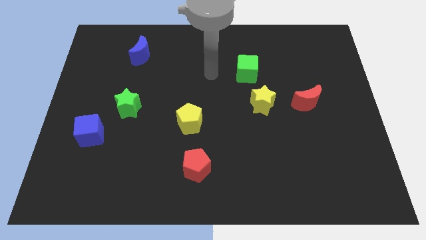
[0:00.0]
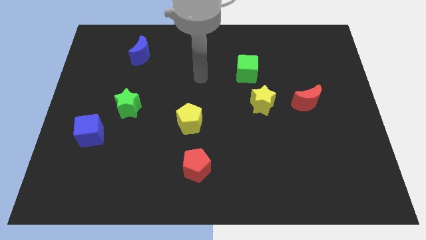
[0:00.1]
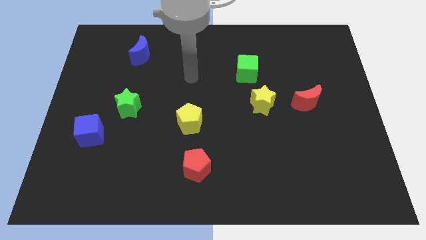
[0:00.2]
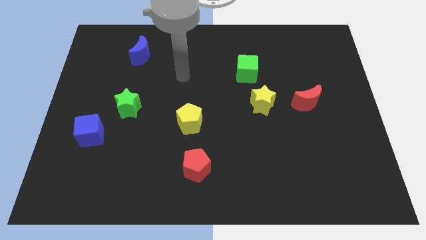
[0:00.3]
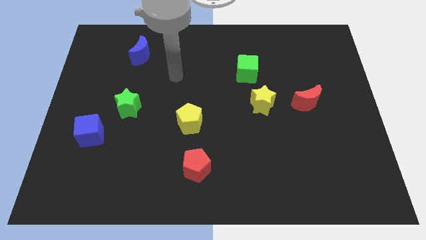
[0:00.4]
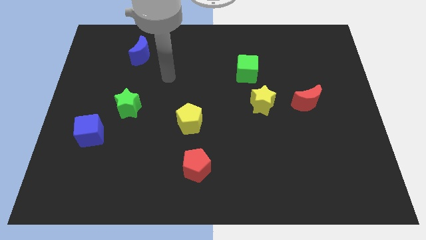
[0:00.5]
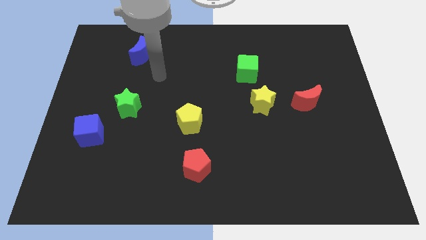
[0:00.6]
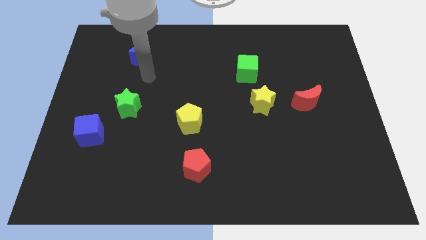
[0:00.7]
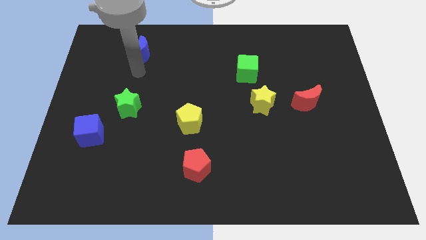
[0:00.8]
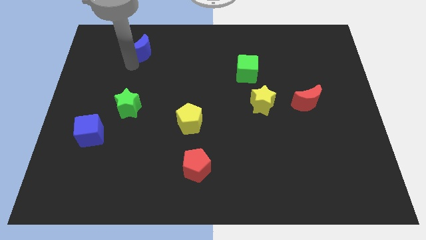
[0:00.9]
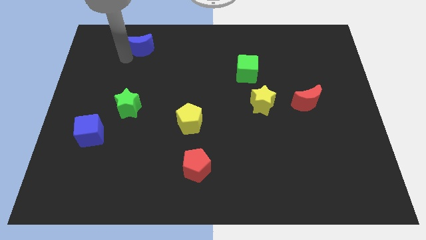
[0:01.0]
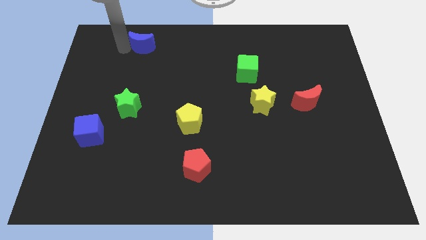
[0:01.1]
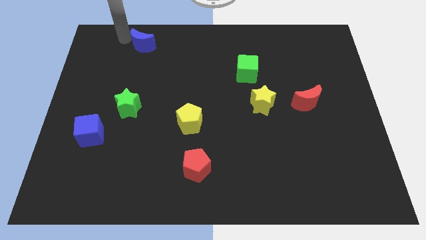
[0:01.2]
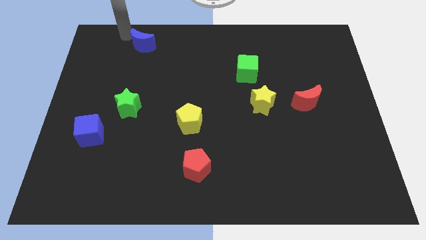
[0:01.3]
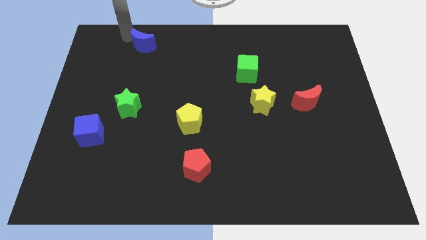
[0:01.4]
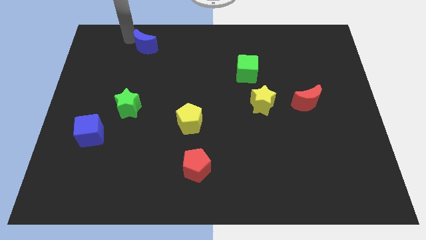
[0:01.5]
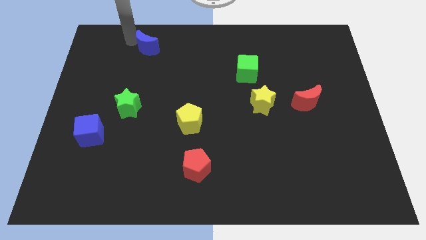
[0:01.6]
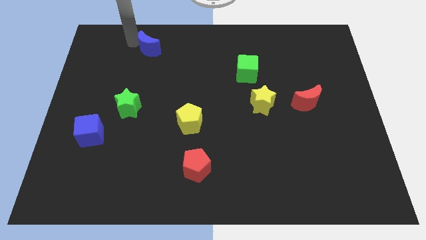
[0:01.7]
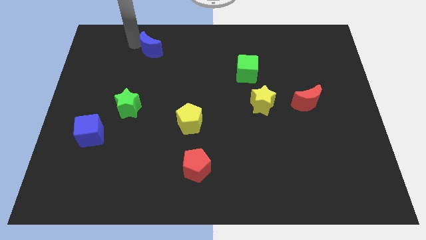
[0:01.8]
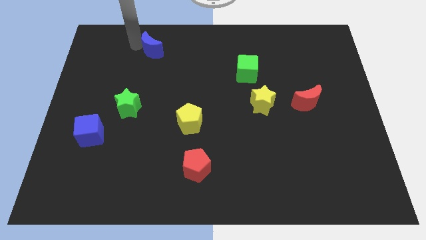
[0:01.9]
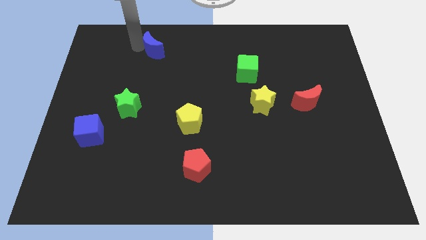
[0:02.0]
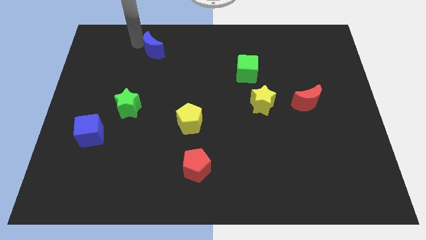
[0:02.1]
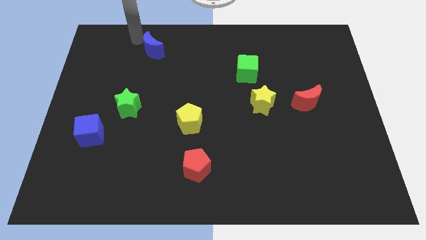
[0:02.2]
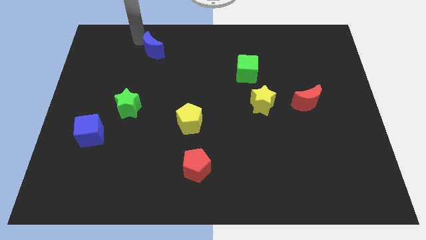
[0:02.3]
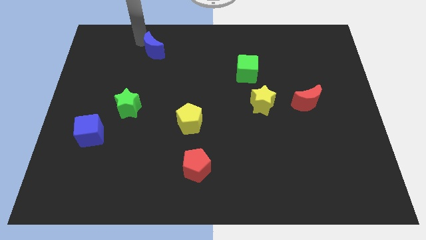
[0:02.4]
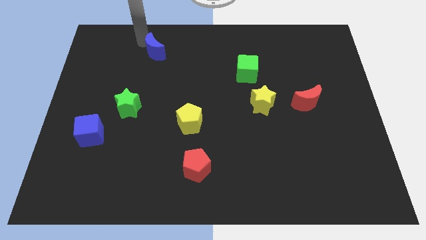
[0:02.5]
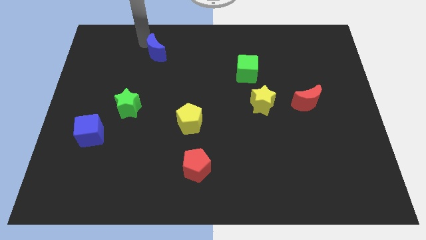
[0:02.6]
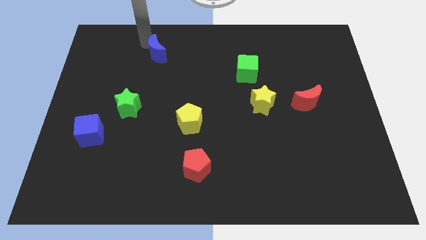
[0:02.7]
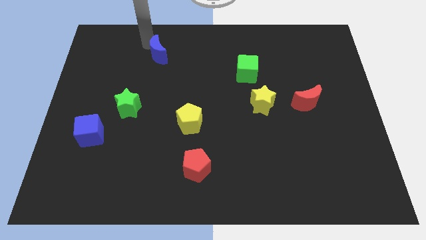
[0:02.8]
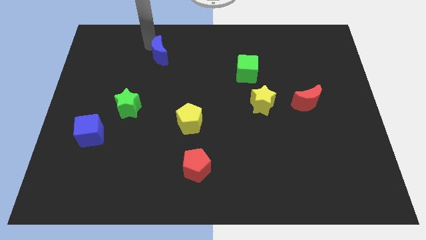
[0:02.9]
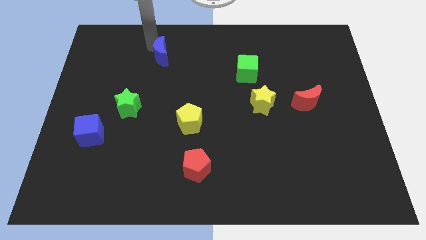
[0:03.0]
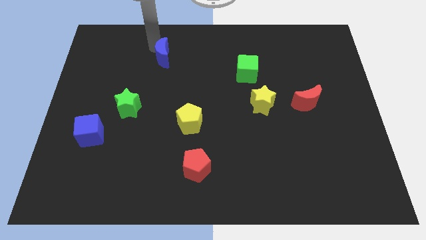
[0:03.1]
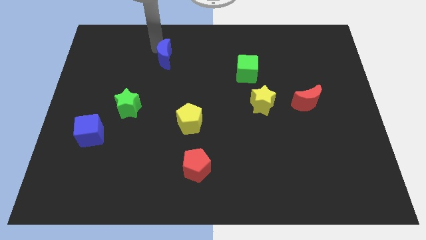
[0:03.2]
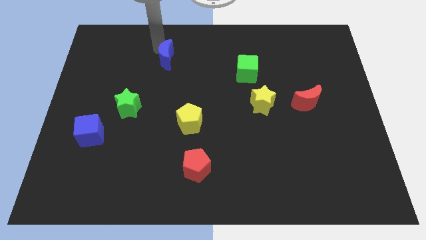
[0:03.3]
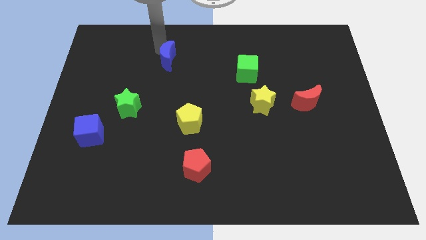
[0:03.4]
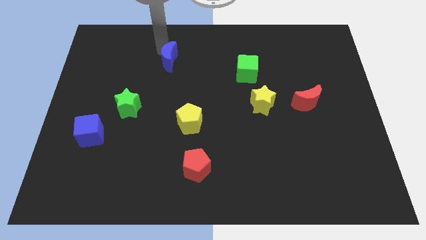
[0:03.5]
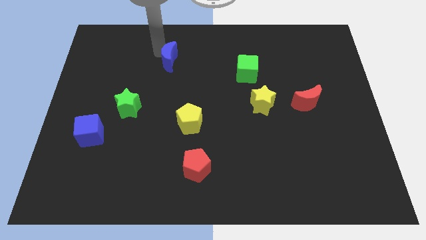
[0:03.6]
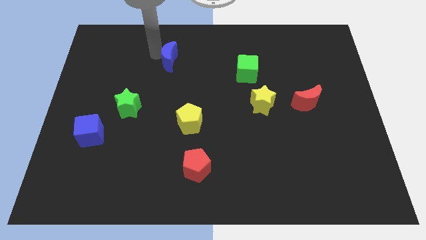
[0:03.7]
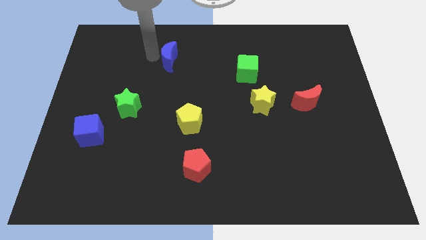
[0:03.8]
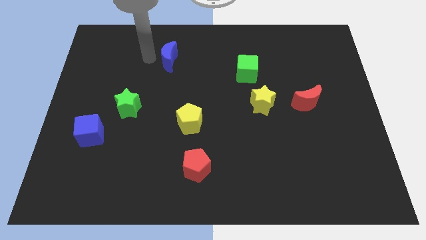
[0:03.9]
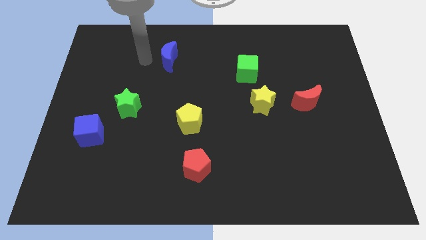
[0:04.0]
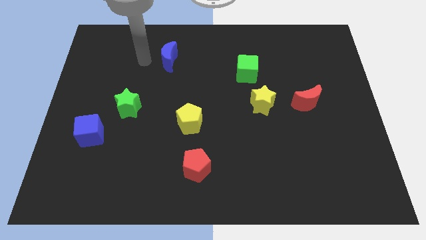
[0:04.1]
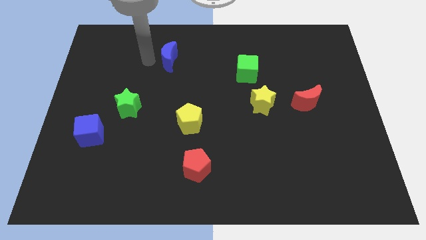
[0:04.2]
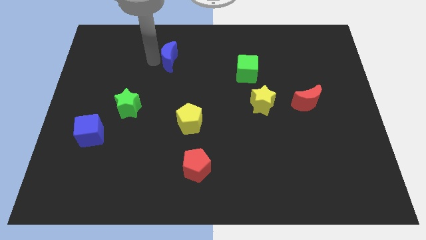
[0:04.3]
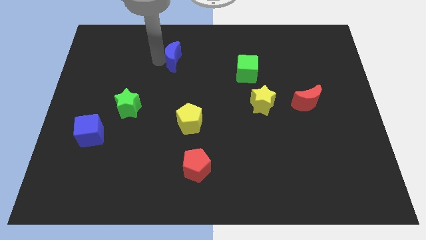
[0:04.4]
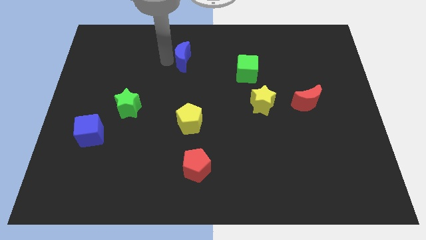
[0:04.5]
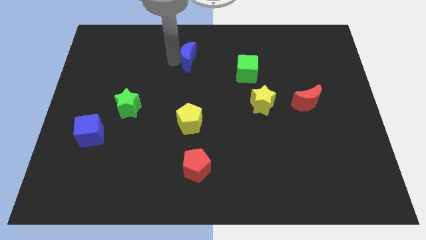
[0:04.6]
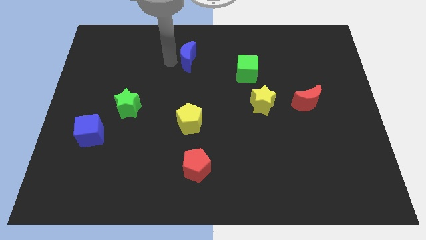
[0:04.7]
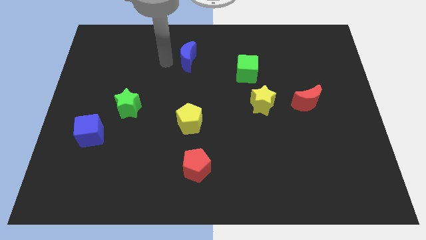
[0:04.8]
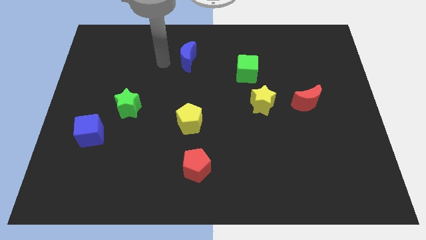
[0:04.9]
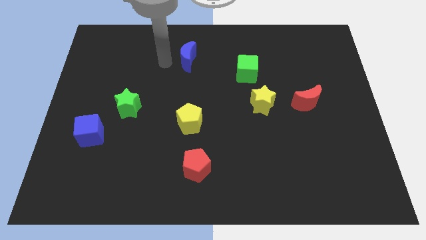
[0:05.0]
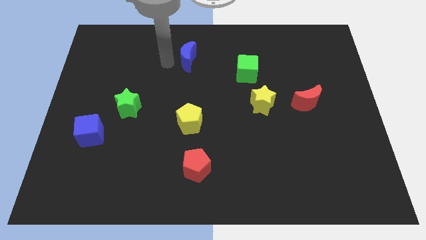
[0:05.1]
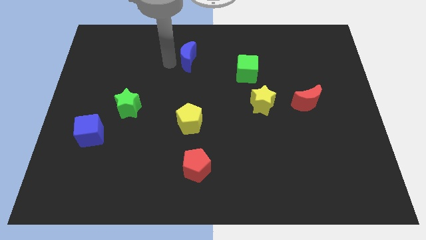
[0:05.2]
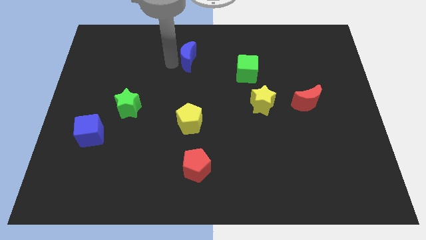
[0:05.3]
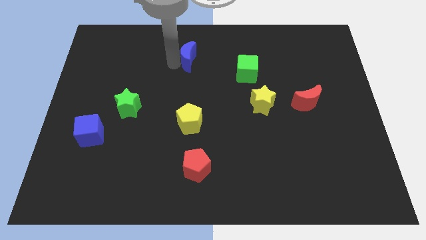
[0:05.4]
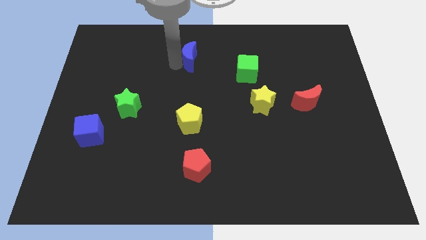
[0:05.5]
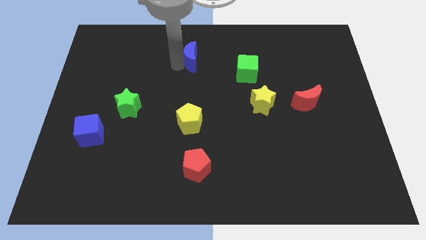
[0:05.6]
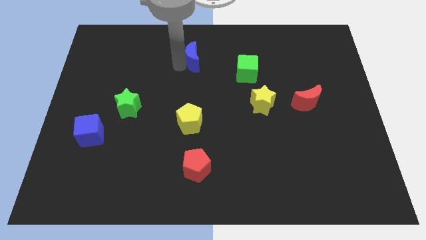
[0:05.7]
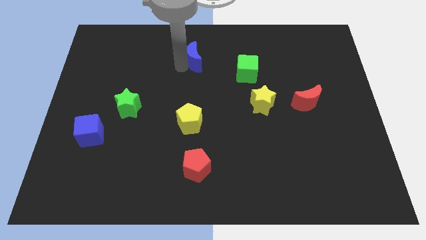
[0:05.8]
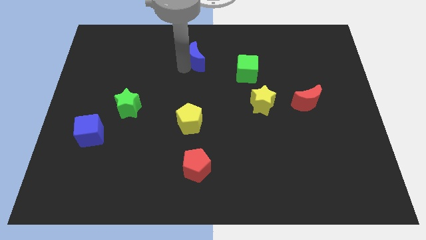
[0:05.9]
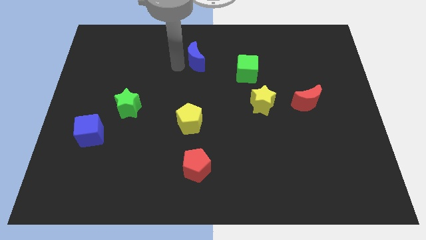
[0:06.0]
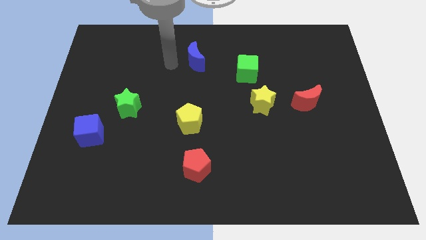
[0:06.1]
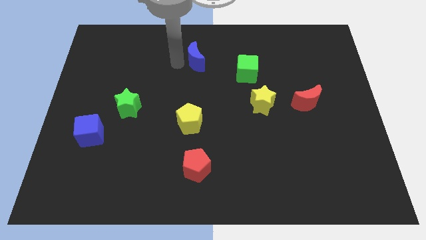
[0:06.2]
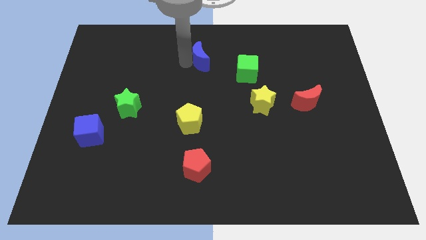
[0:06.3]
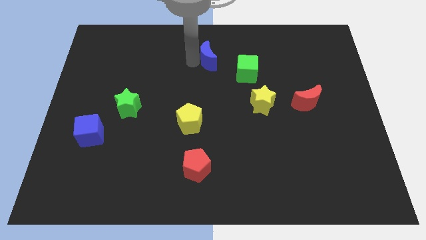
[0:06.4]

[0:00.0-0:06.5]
push the blue moon to the top left of the green cube

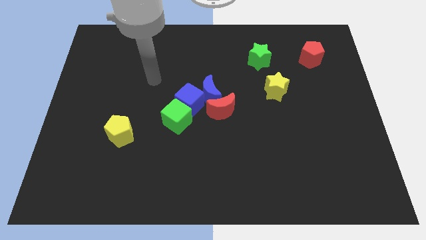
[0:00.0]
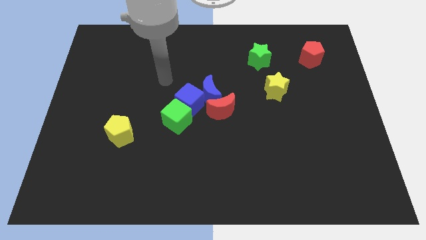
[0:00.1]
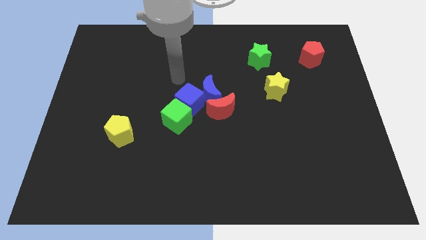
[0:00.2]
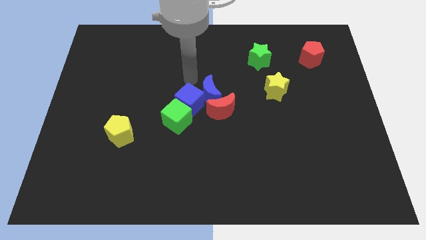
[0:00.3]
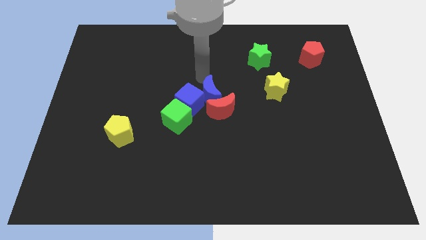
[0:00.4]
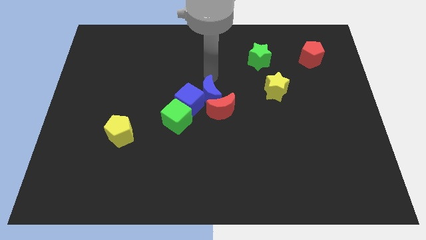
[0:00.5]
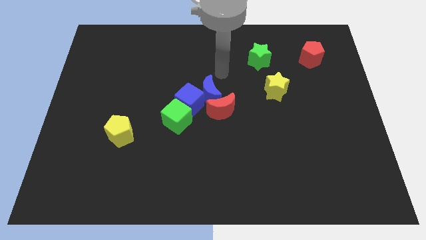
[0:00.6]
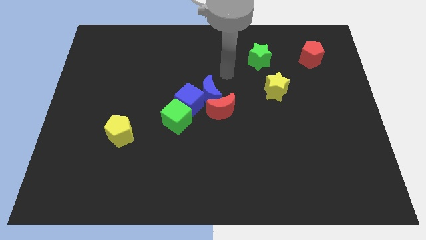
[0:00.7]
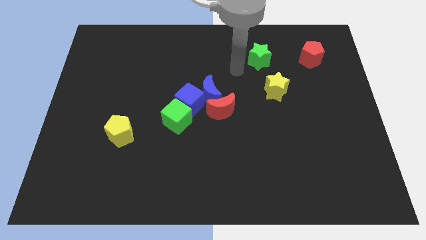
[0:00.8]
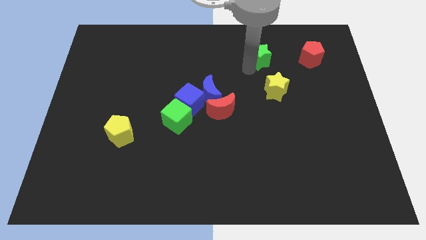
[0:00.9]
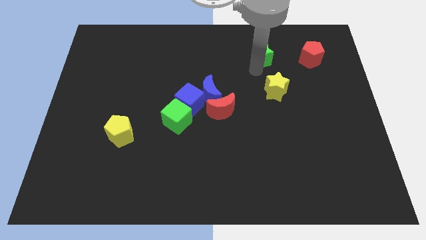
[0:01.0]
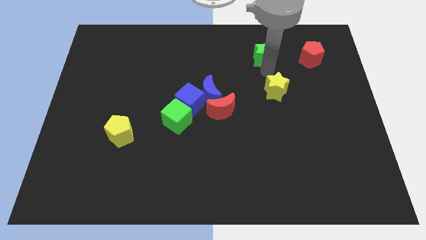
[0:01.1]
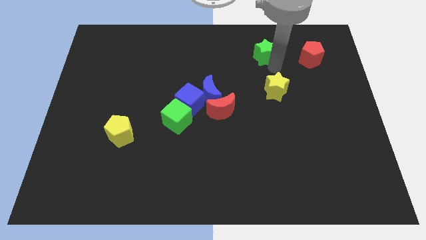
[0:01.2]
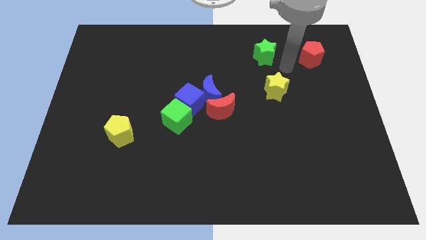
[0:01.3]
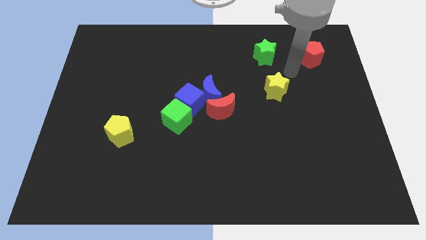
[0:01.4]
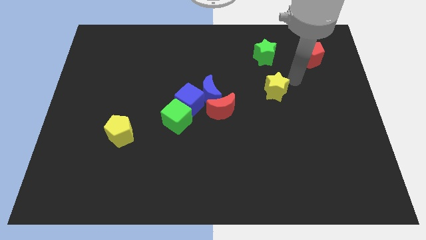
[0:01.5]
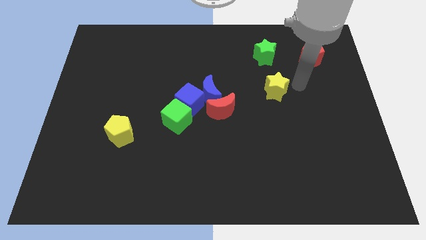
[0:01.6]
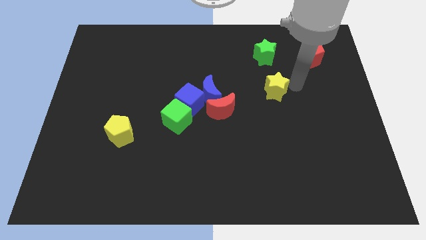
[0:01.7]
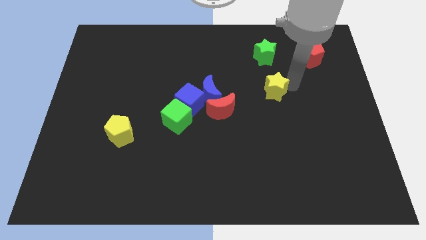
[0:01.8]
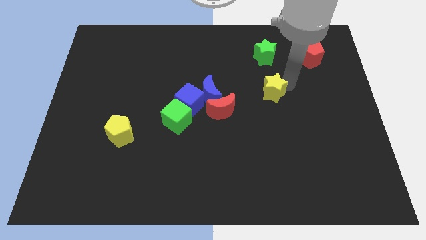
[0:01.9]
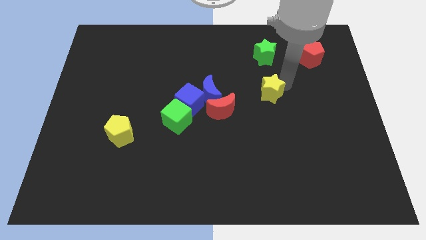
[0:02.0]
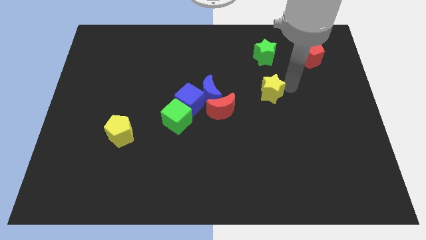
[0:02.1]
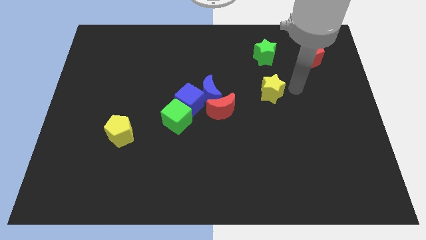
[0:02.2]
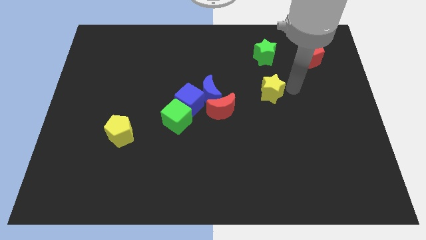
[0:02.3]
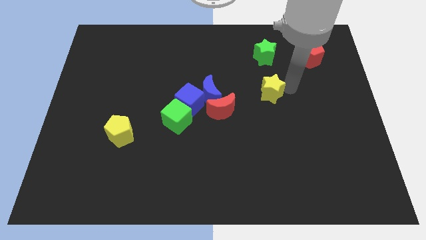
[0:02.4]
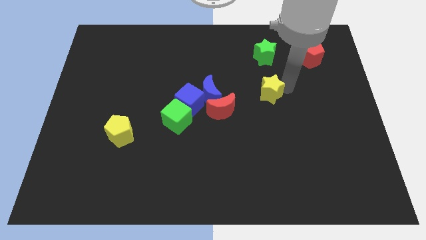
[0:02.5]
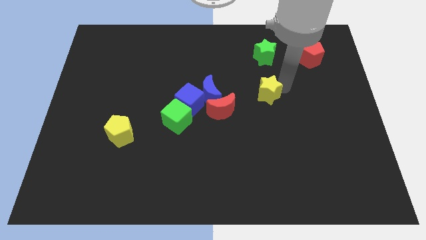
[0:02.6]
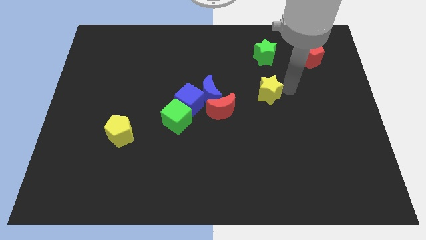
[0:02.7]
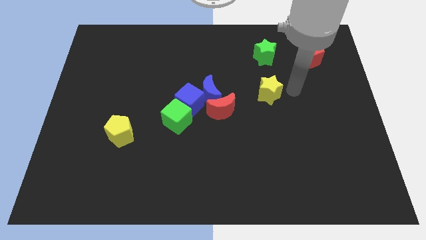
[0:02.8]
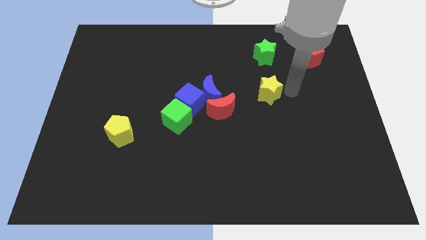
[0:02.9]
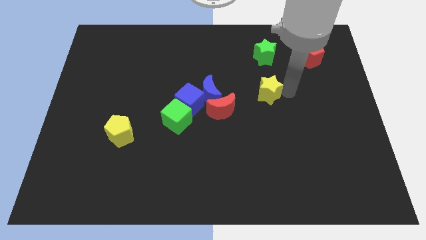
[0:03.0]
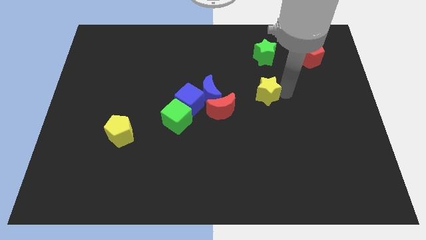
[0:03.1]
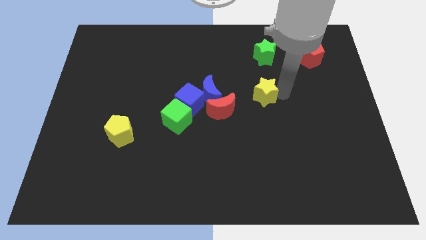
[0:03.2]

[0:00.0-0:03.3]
push the yellow star diagonally up and to the right of the red moon
